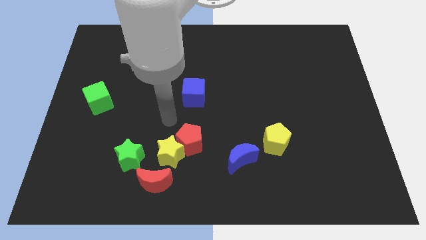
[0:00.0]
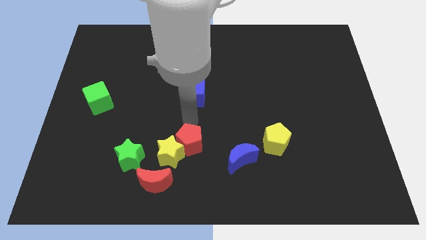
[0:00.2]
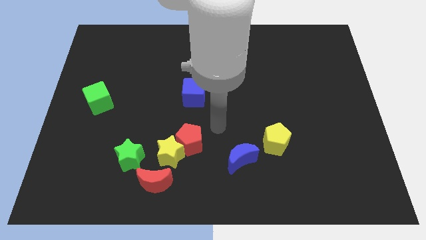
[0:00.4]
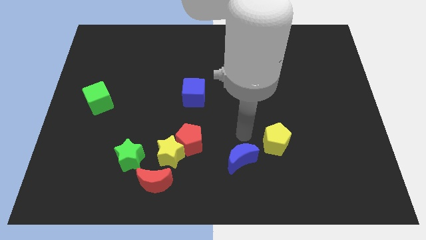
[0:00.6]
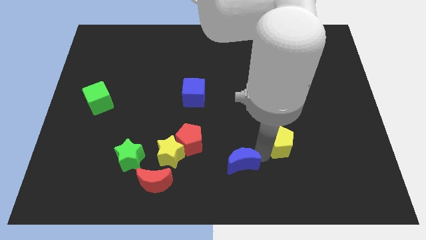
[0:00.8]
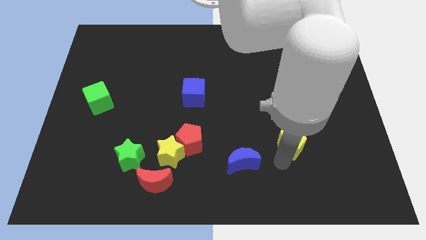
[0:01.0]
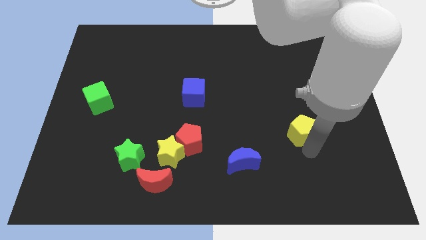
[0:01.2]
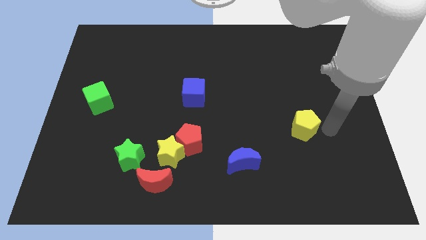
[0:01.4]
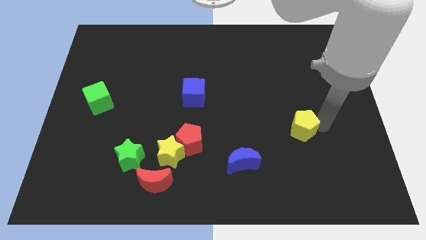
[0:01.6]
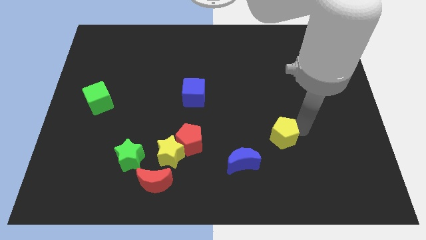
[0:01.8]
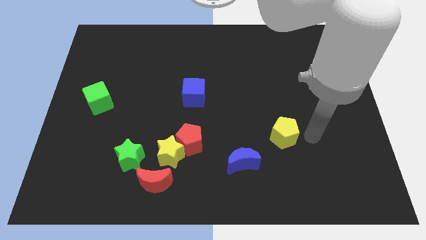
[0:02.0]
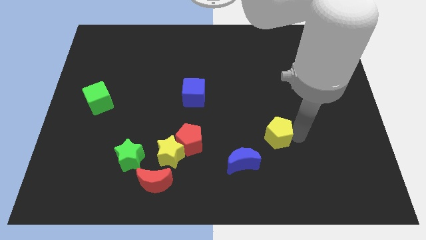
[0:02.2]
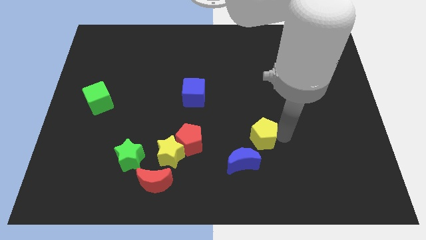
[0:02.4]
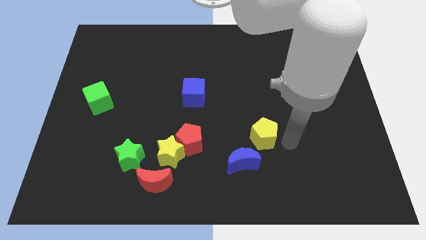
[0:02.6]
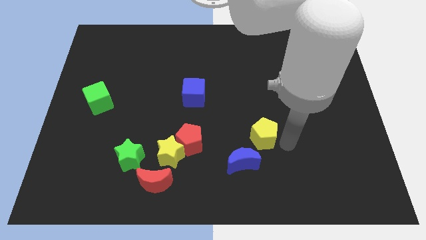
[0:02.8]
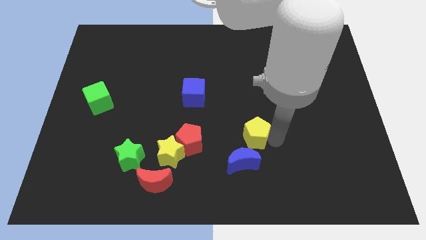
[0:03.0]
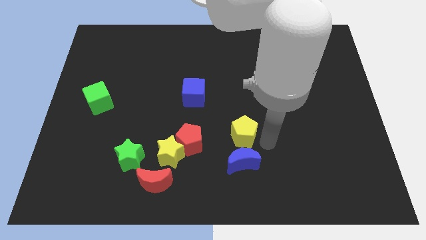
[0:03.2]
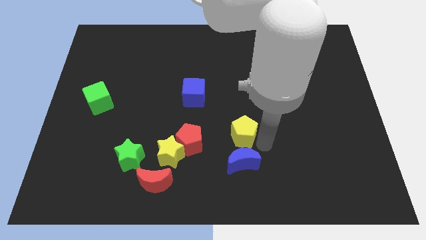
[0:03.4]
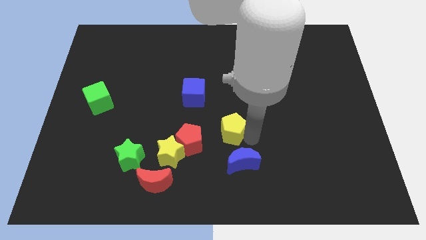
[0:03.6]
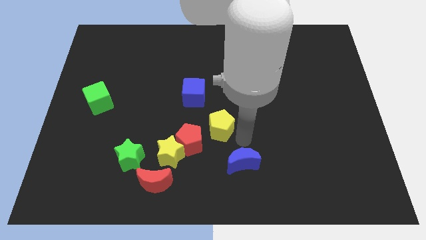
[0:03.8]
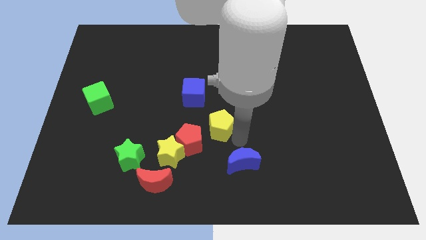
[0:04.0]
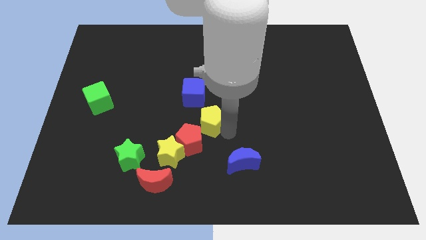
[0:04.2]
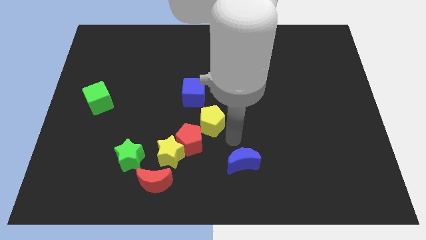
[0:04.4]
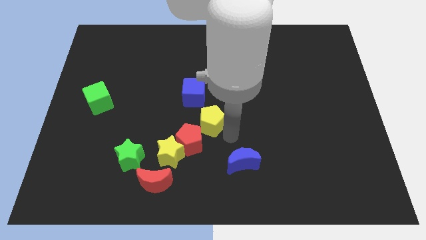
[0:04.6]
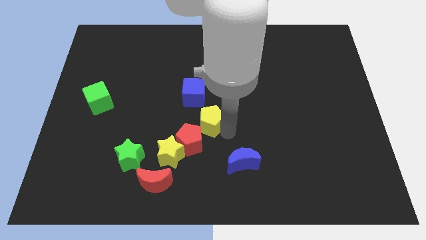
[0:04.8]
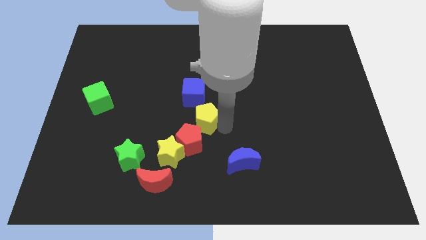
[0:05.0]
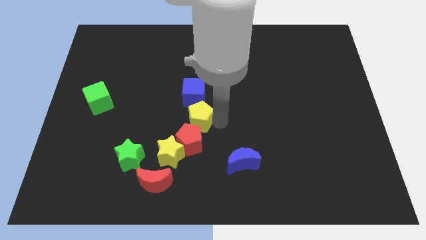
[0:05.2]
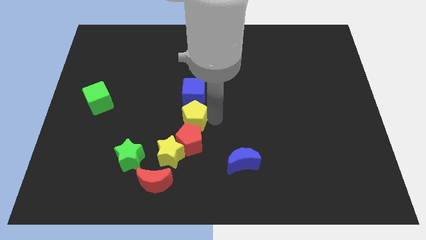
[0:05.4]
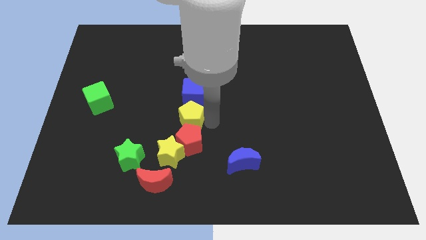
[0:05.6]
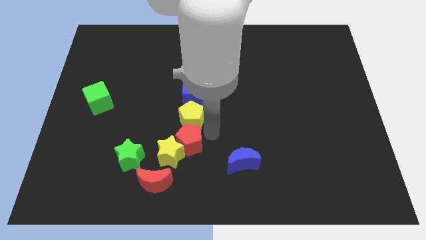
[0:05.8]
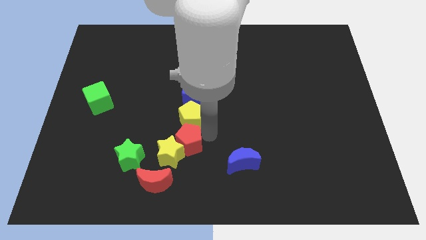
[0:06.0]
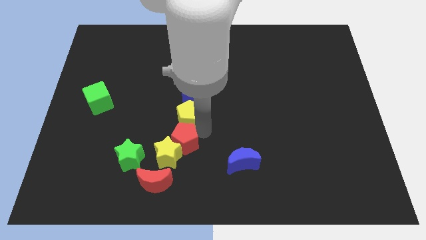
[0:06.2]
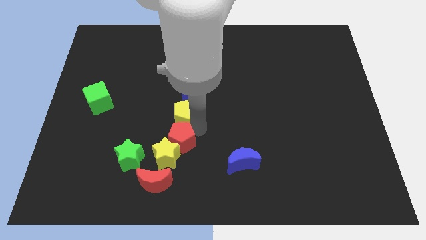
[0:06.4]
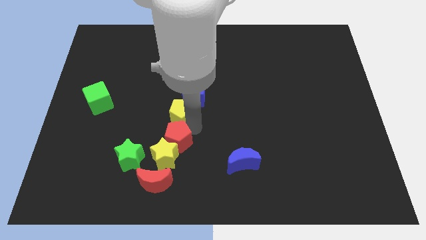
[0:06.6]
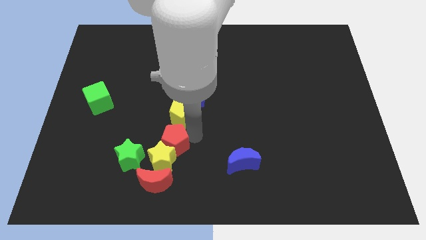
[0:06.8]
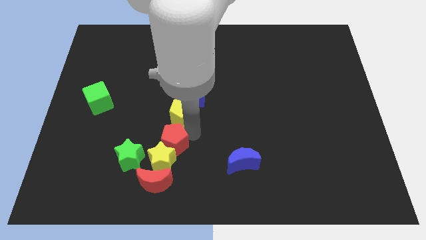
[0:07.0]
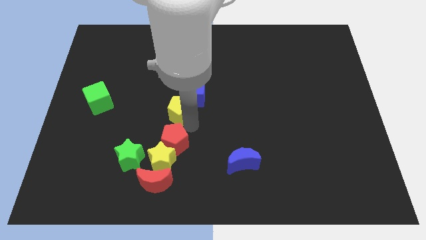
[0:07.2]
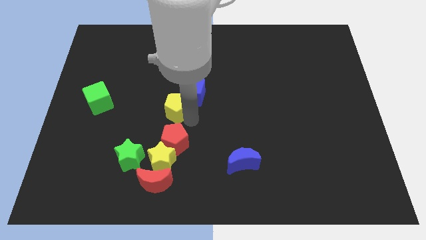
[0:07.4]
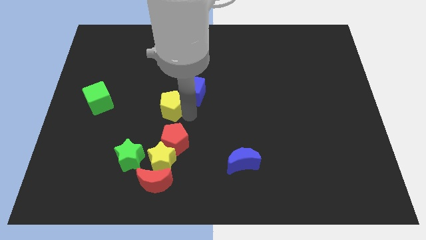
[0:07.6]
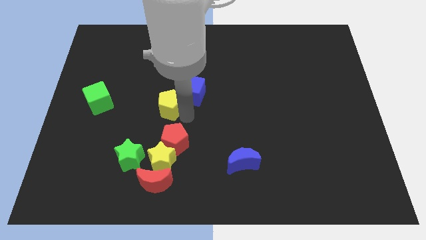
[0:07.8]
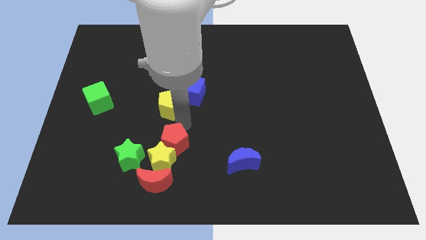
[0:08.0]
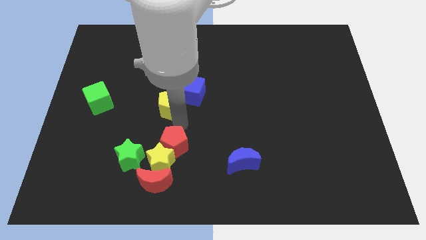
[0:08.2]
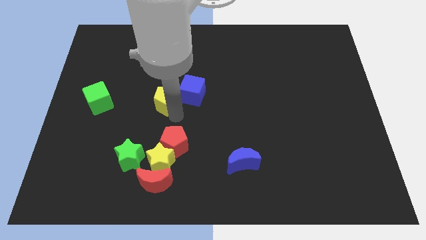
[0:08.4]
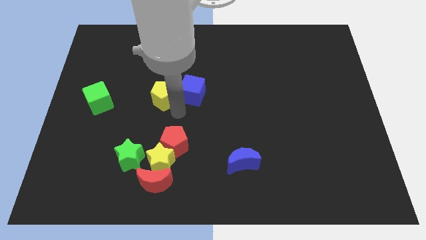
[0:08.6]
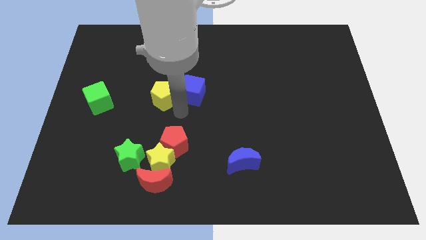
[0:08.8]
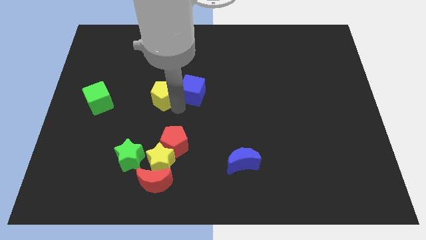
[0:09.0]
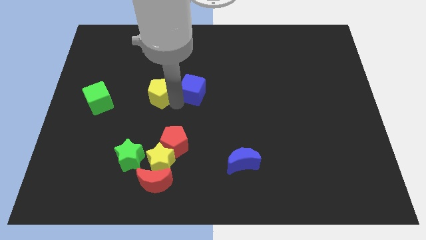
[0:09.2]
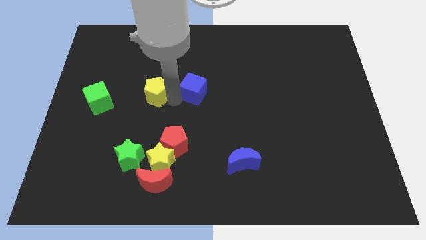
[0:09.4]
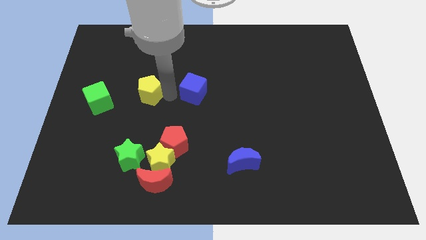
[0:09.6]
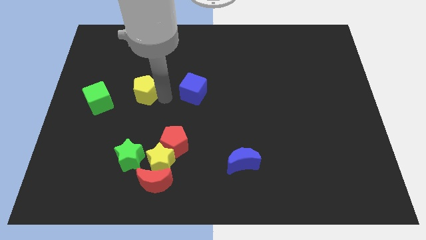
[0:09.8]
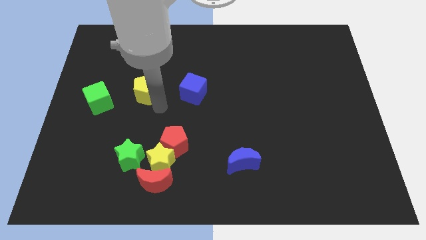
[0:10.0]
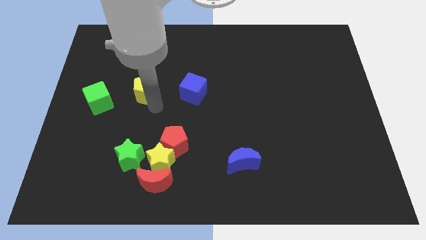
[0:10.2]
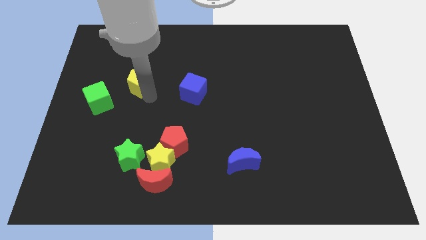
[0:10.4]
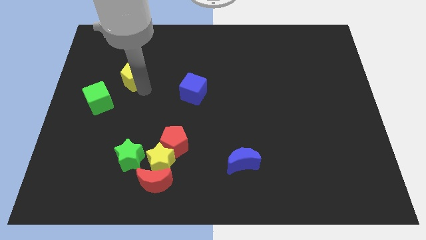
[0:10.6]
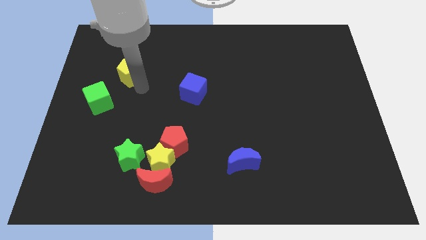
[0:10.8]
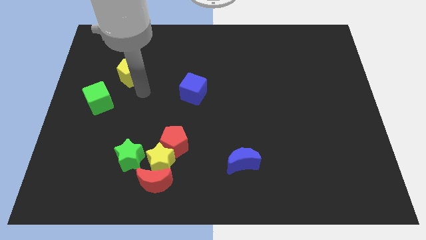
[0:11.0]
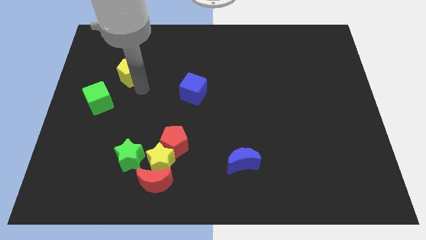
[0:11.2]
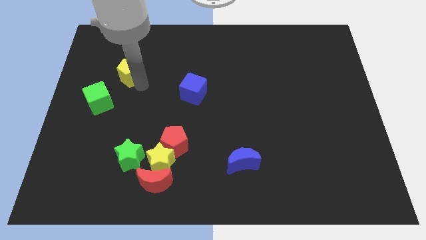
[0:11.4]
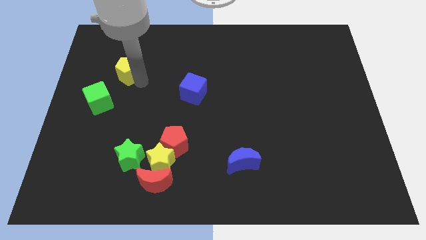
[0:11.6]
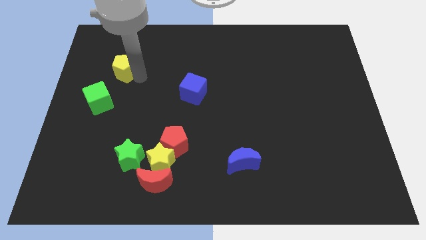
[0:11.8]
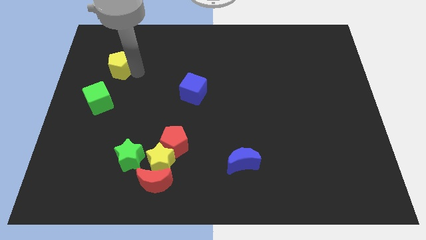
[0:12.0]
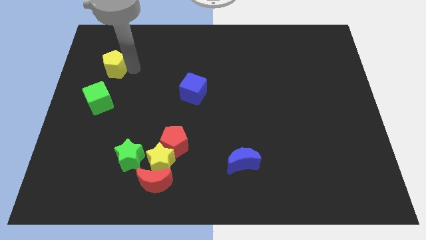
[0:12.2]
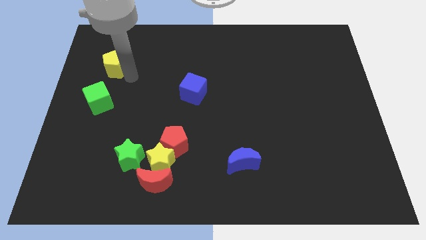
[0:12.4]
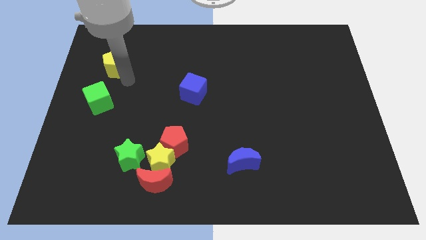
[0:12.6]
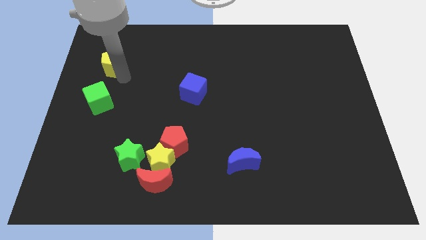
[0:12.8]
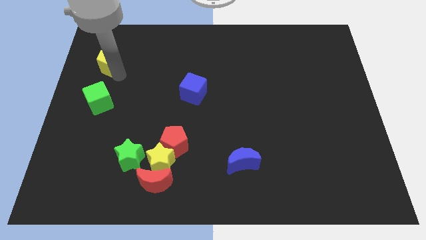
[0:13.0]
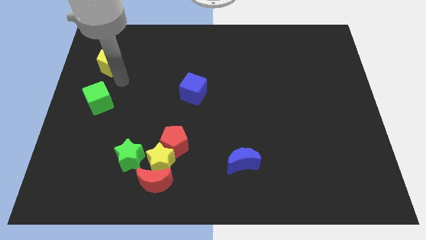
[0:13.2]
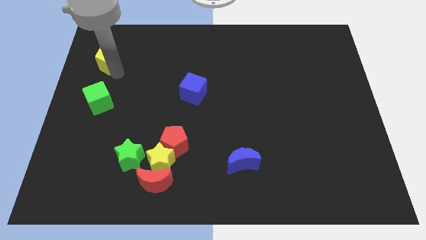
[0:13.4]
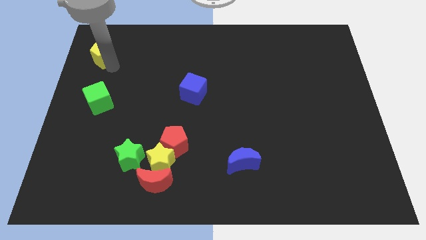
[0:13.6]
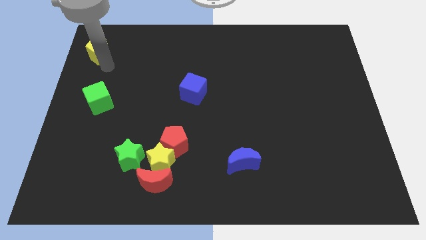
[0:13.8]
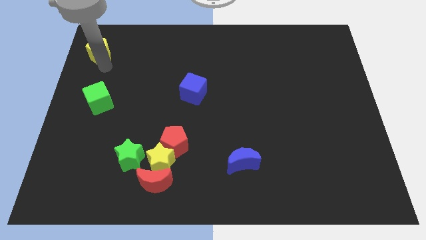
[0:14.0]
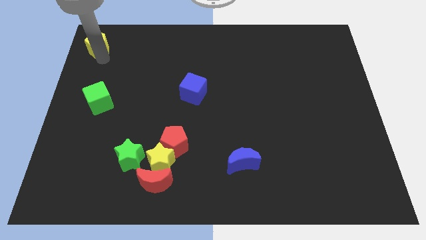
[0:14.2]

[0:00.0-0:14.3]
slide the yellow pentagon to the top left corner
